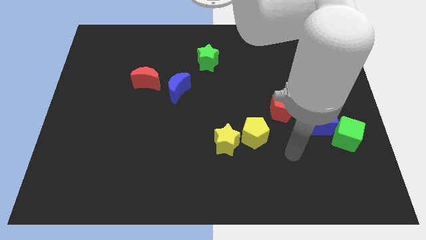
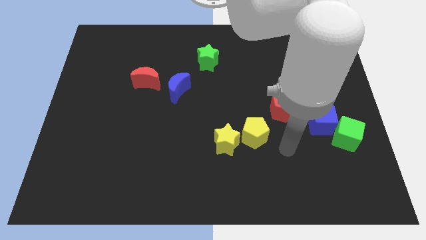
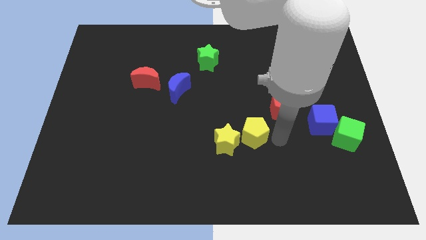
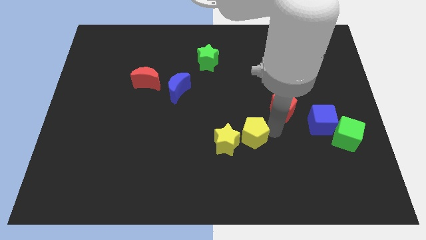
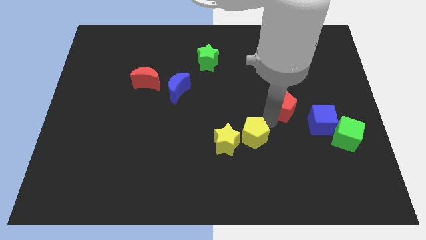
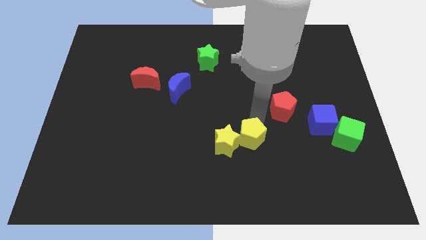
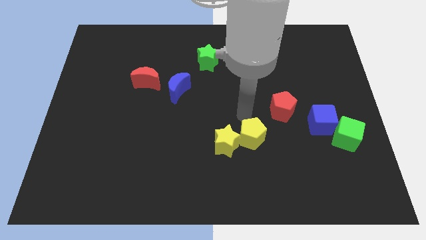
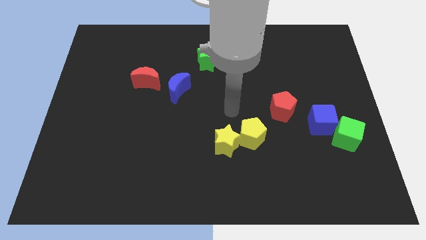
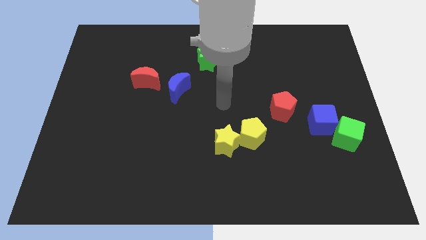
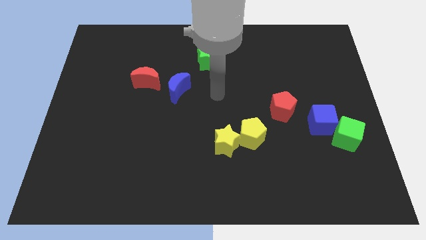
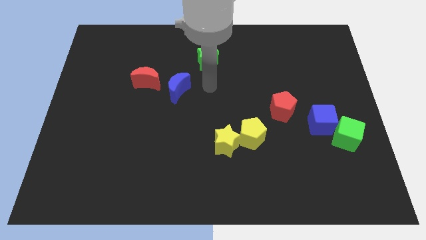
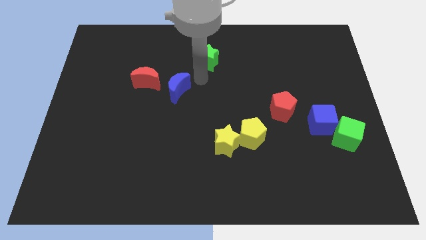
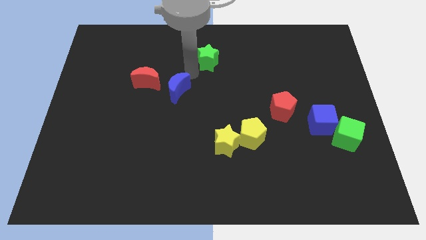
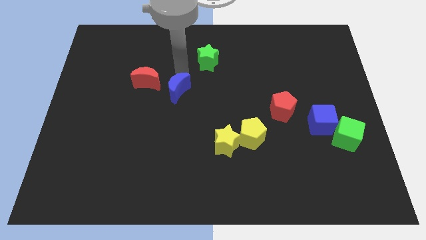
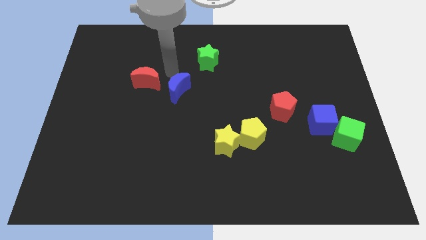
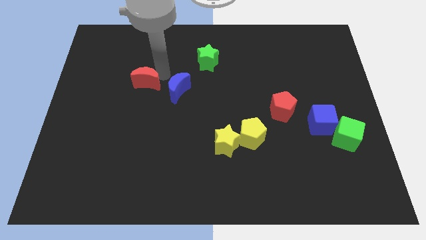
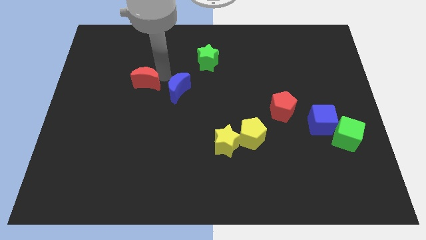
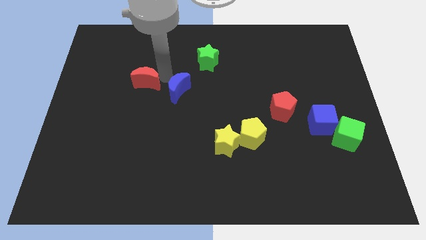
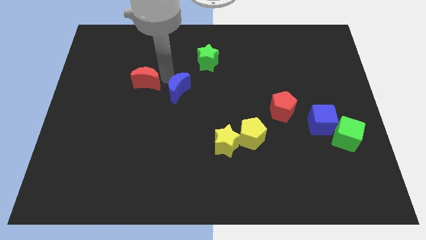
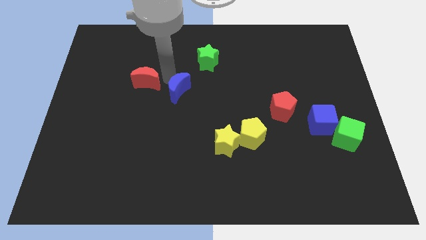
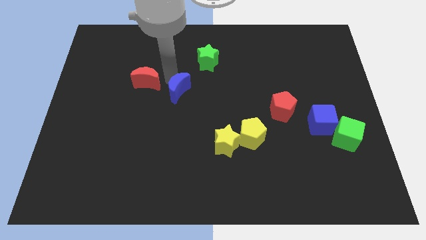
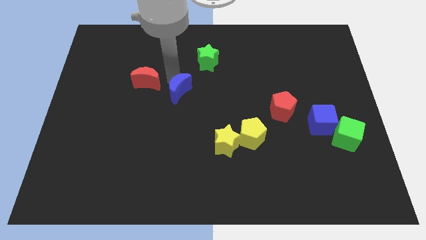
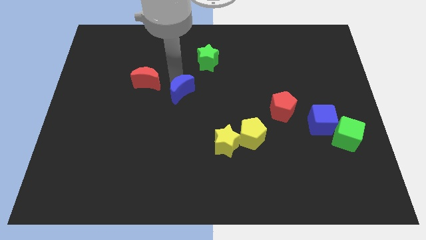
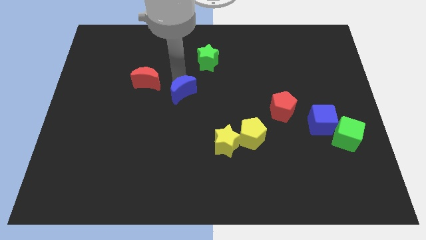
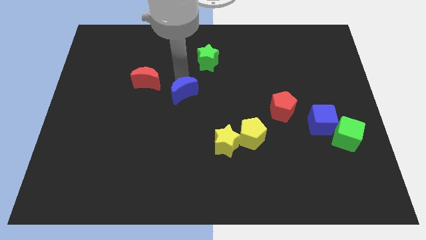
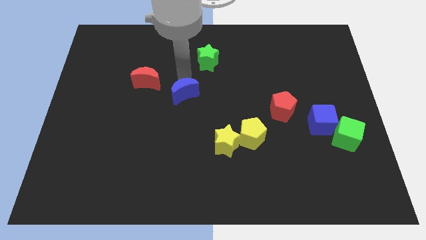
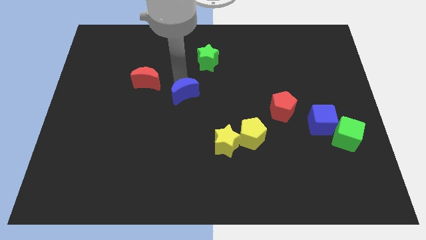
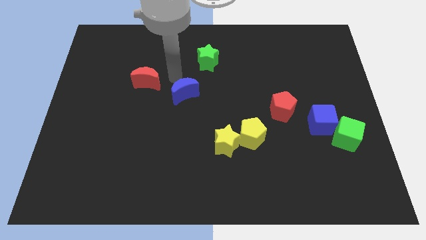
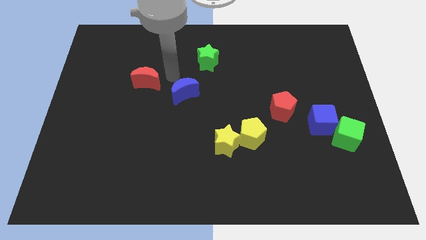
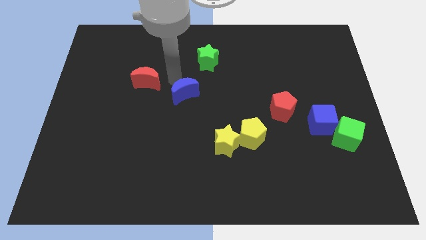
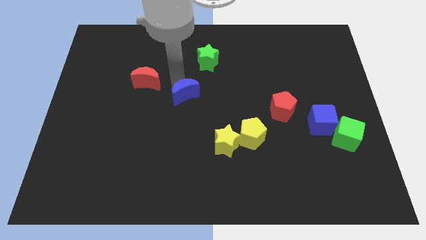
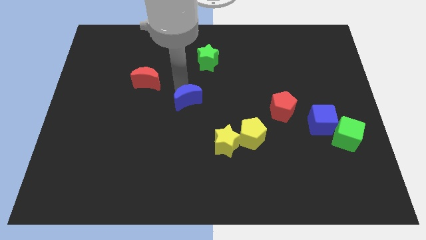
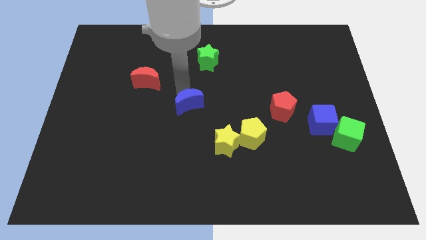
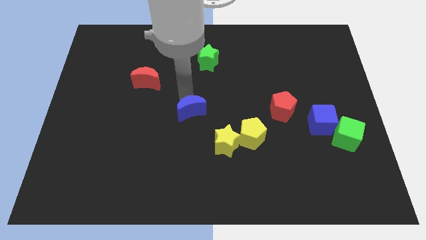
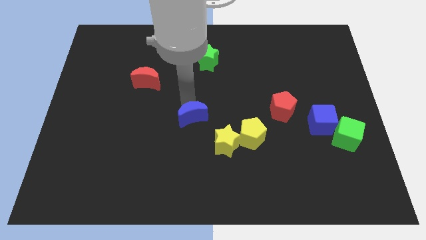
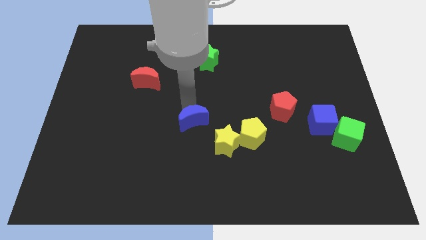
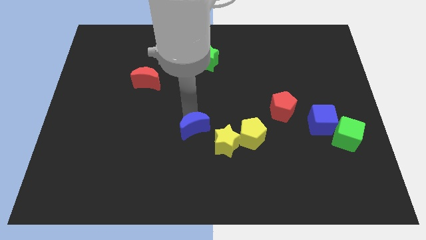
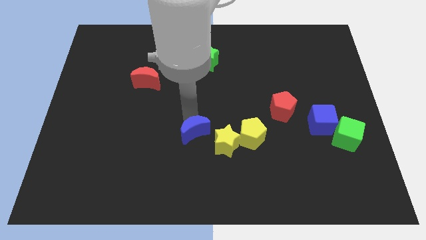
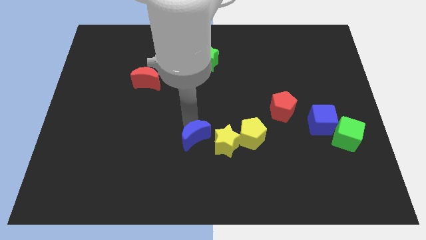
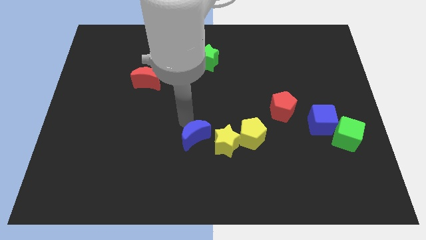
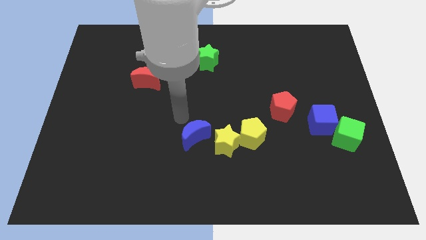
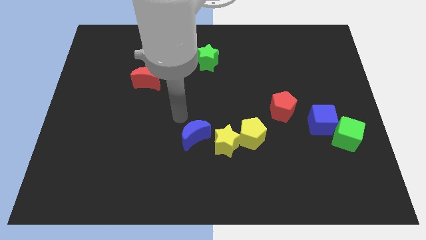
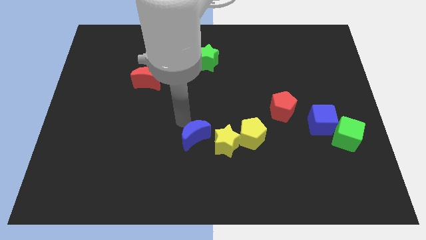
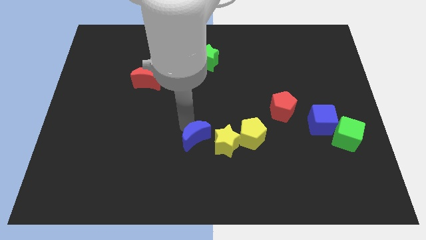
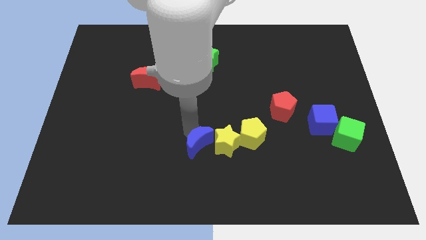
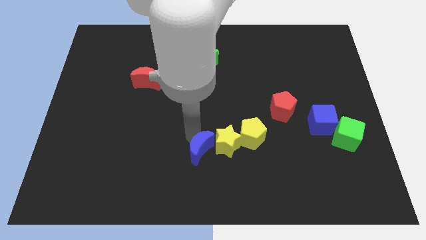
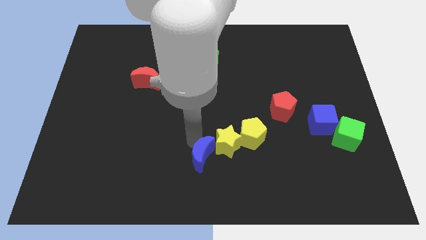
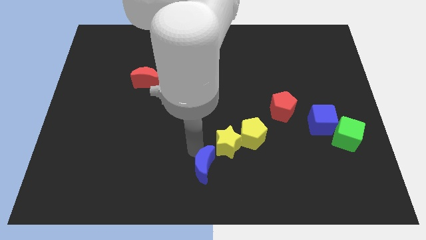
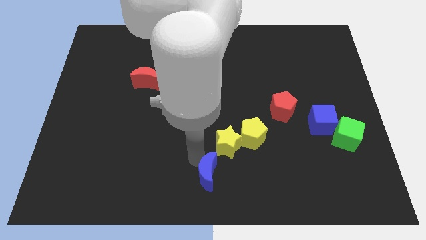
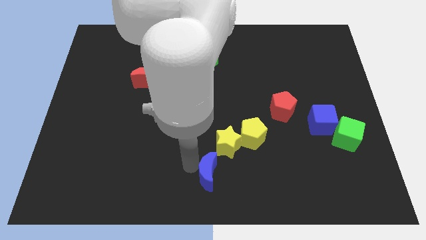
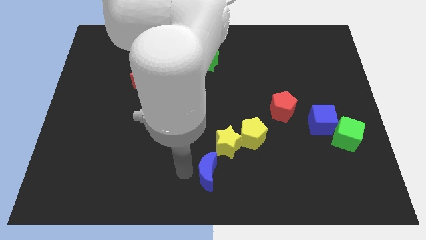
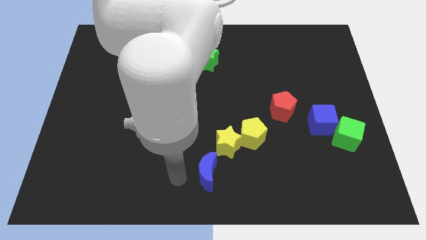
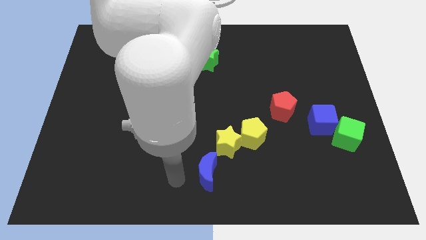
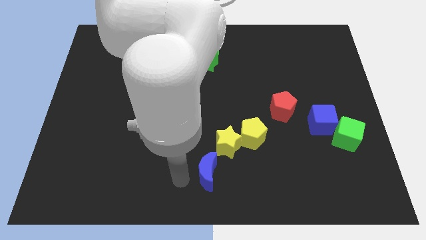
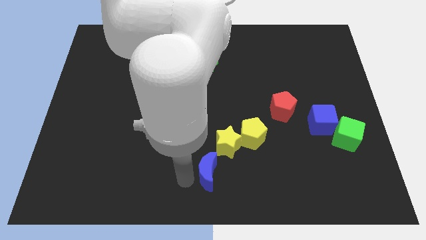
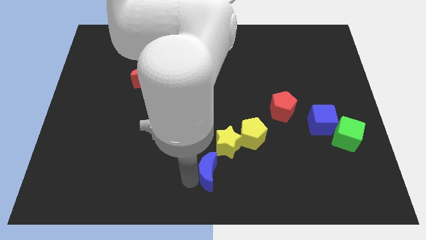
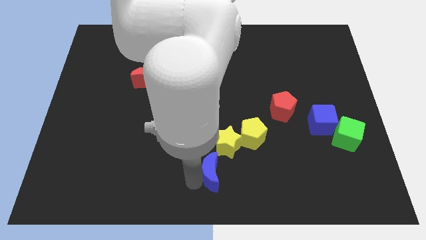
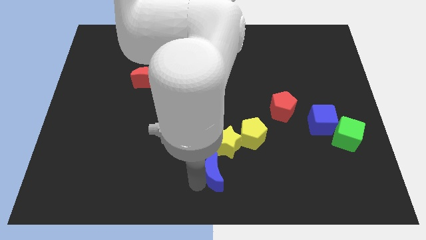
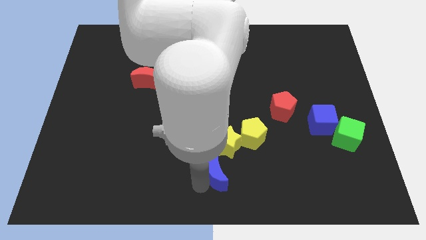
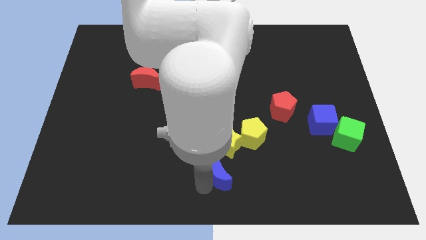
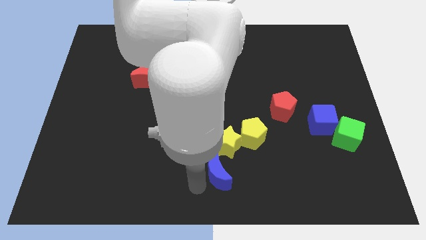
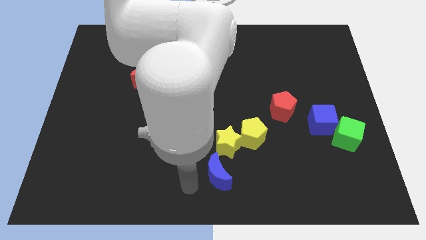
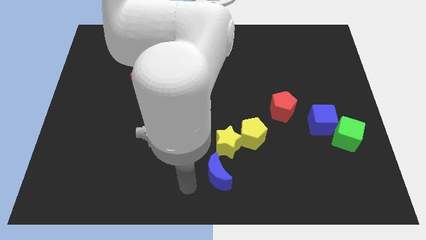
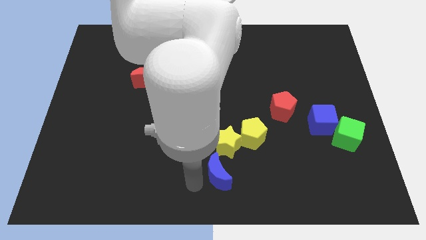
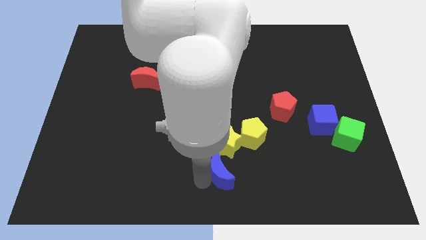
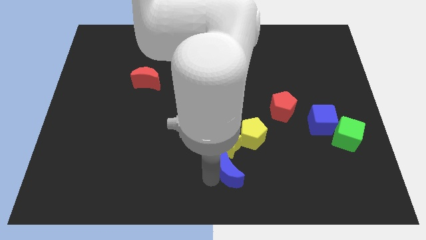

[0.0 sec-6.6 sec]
move the blue moon downwards and to the right

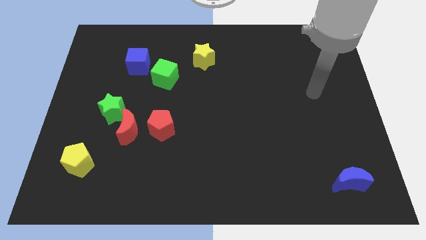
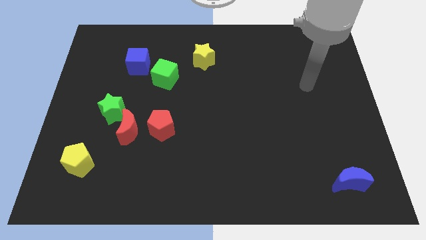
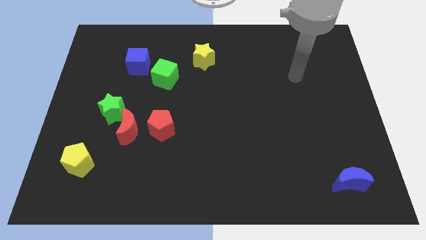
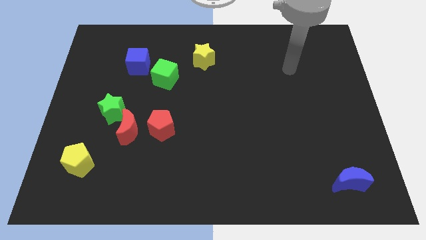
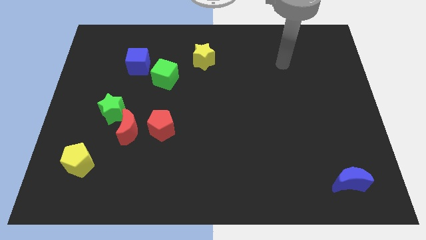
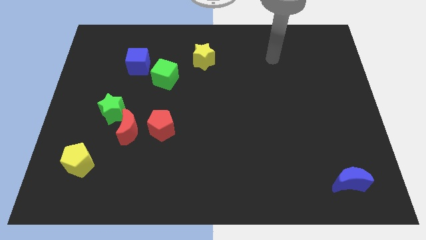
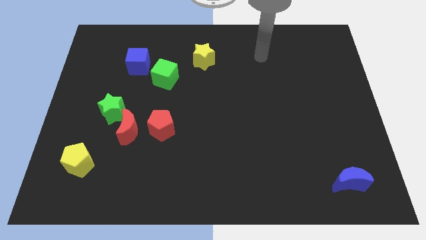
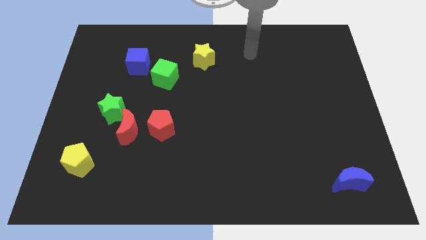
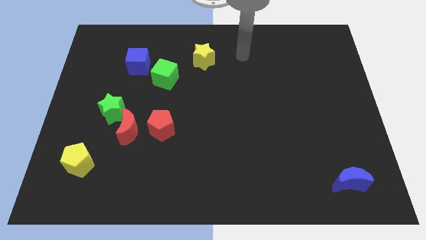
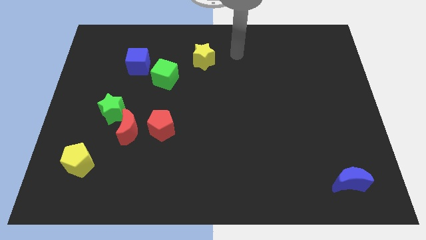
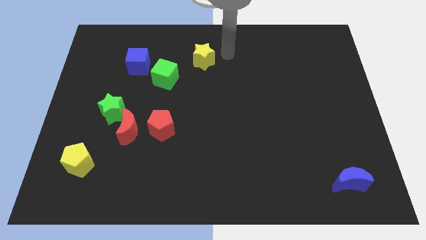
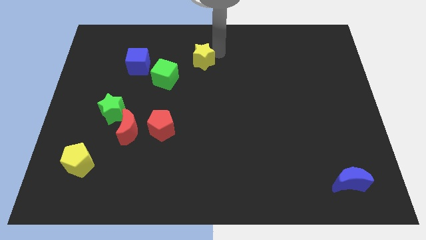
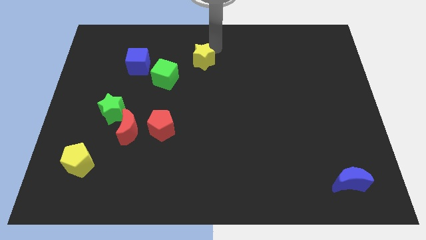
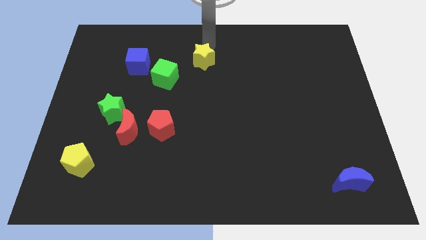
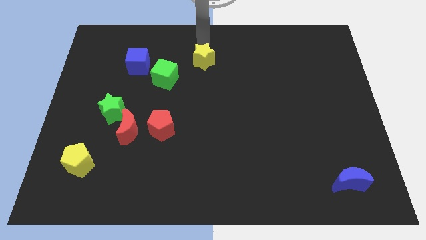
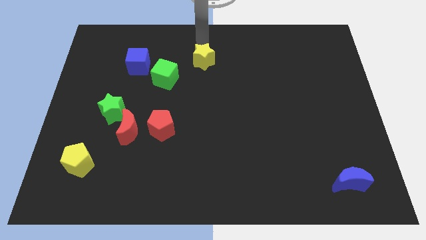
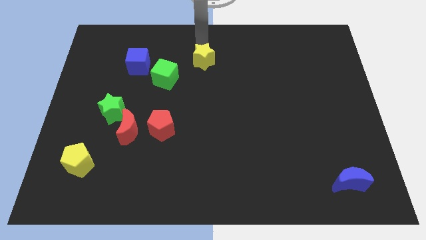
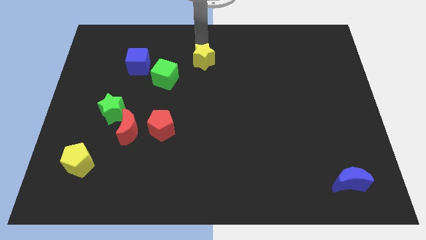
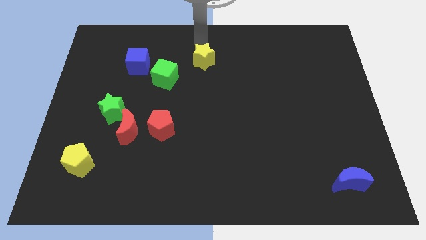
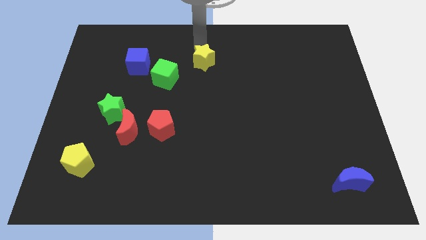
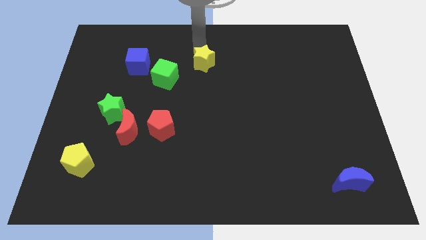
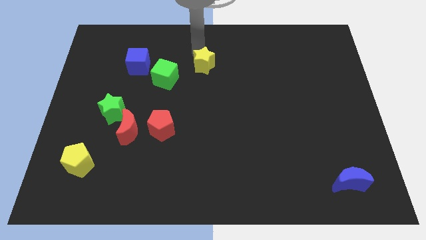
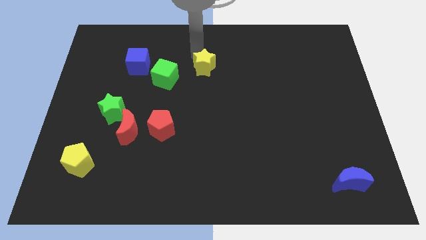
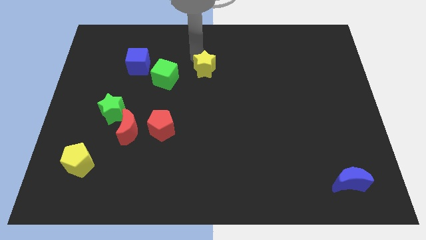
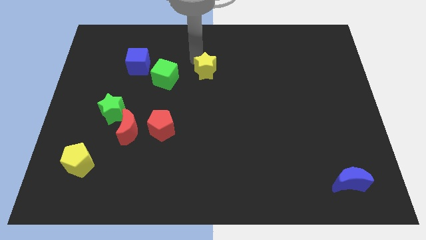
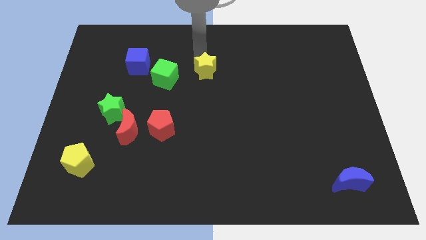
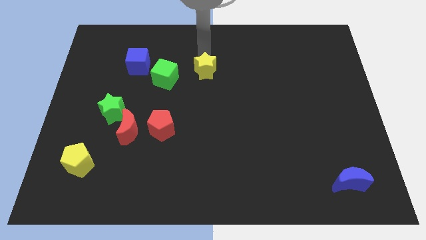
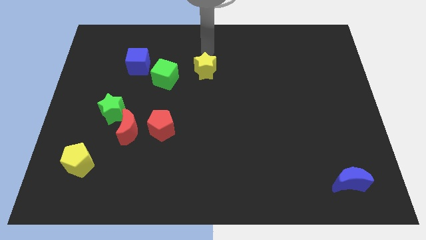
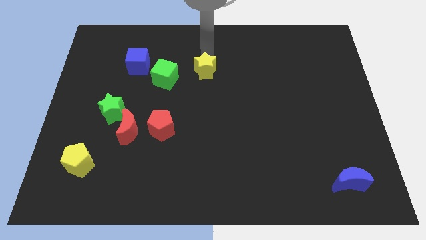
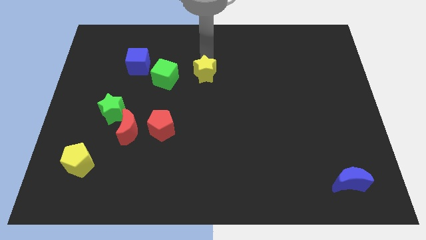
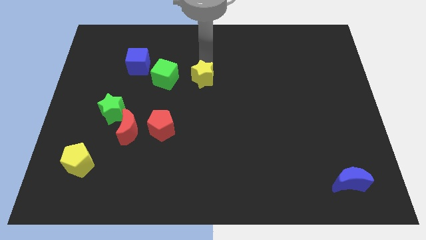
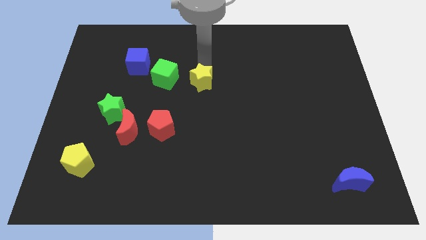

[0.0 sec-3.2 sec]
slide the yellow star downwards a bit
